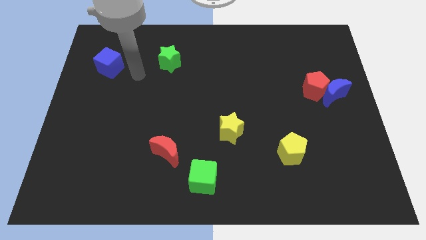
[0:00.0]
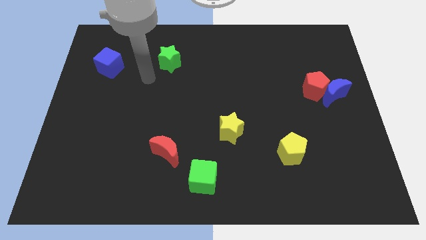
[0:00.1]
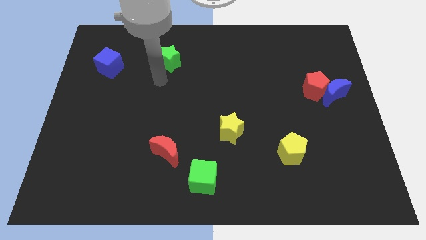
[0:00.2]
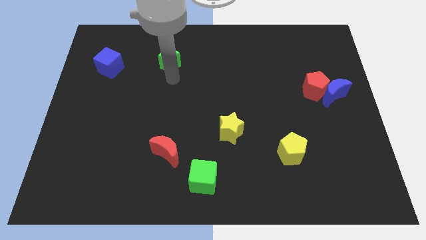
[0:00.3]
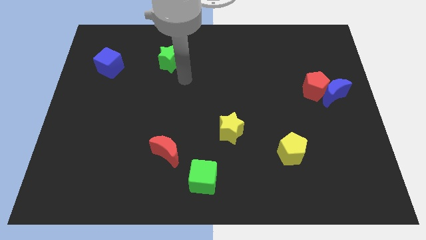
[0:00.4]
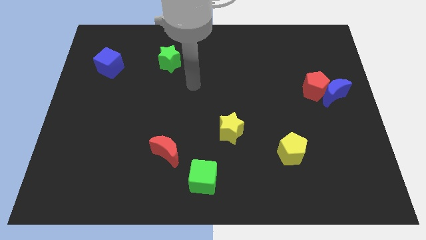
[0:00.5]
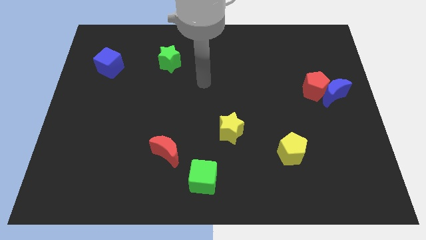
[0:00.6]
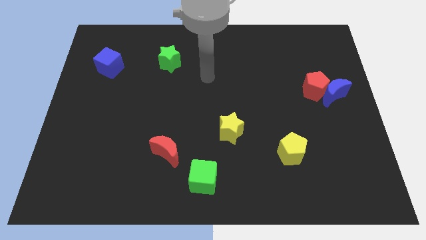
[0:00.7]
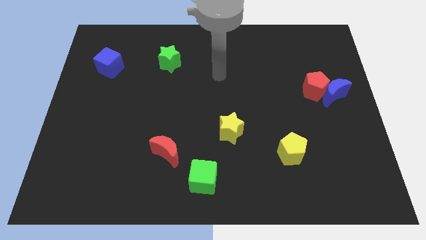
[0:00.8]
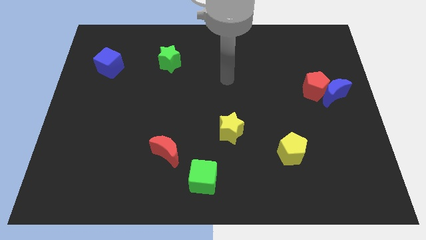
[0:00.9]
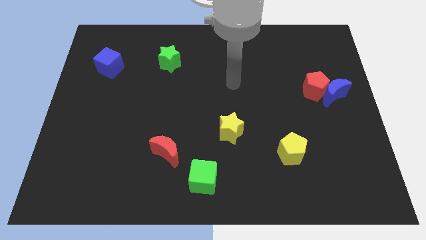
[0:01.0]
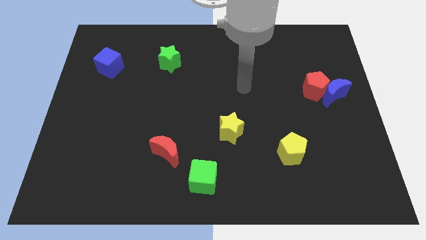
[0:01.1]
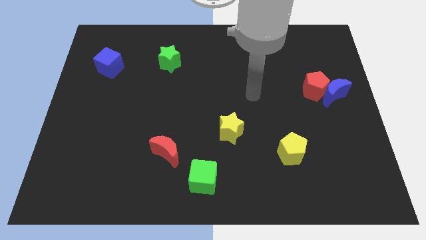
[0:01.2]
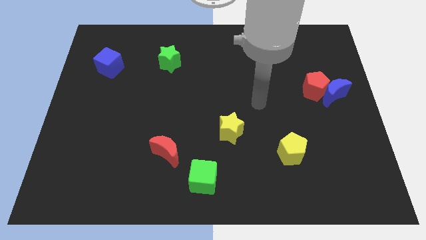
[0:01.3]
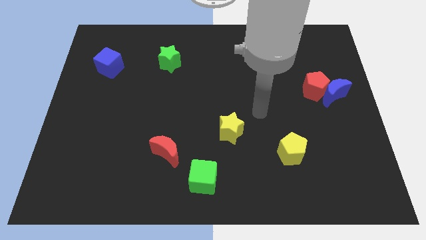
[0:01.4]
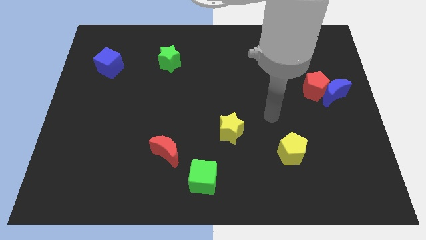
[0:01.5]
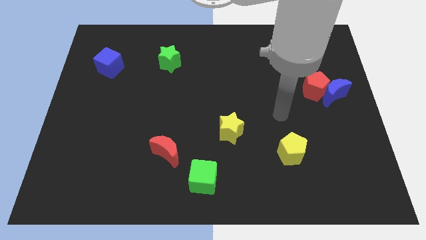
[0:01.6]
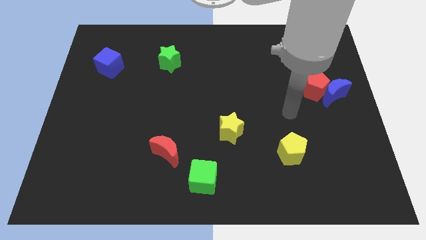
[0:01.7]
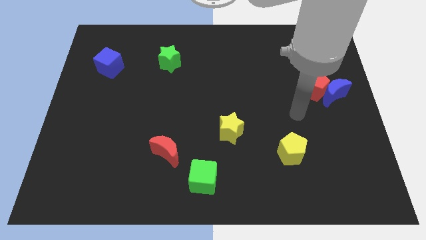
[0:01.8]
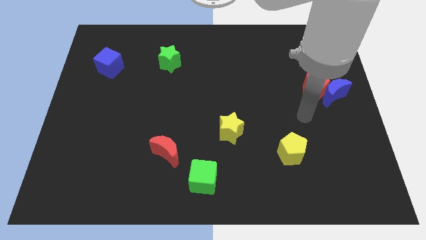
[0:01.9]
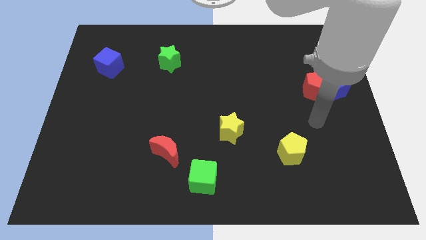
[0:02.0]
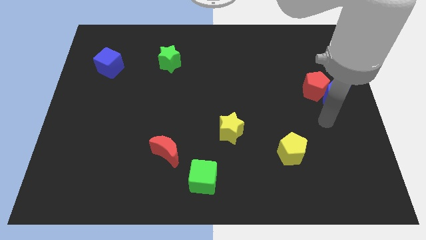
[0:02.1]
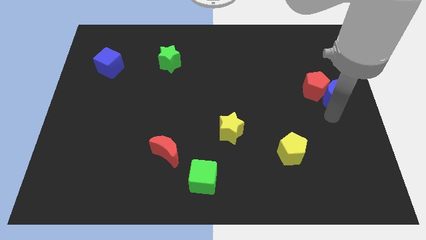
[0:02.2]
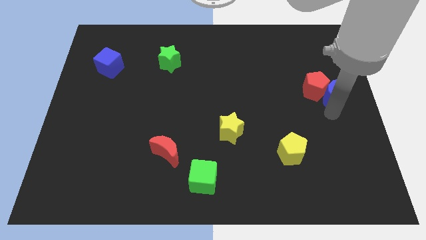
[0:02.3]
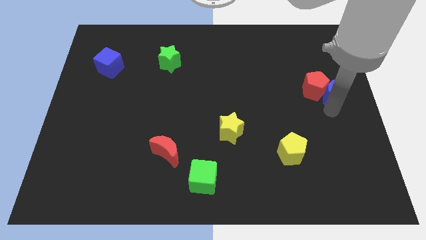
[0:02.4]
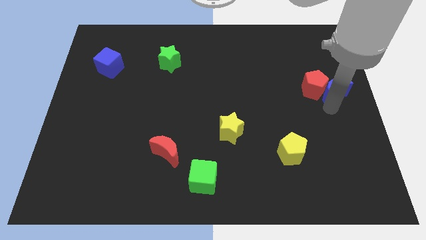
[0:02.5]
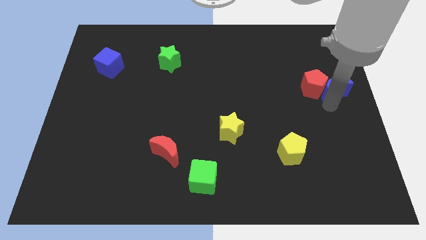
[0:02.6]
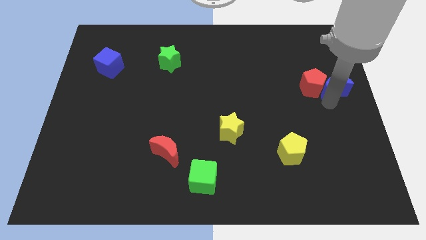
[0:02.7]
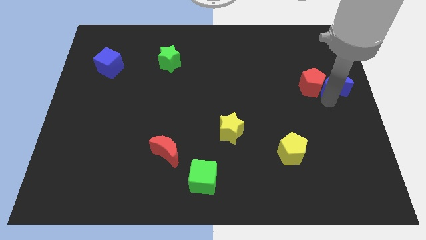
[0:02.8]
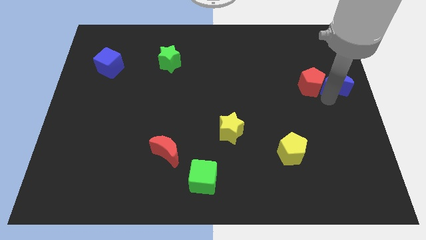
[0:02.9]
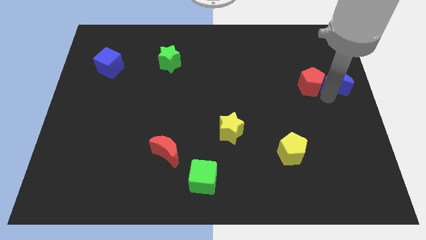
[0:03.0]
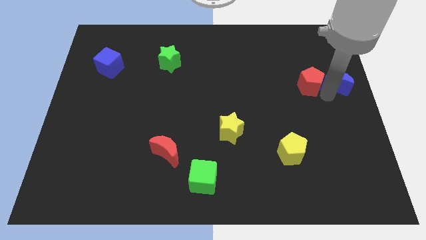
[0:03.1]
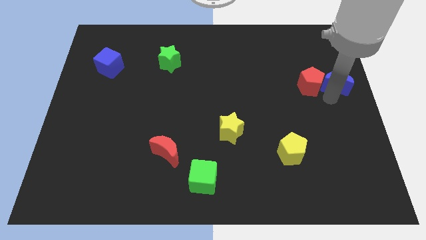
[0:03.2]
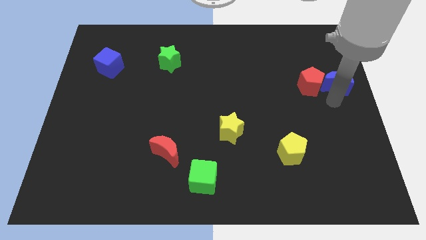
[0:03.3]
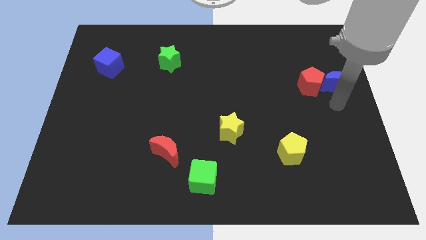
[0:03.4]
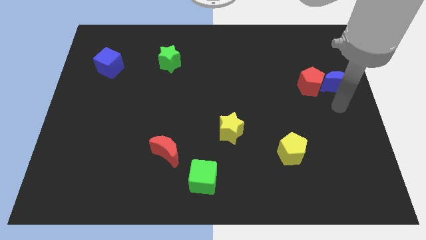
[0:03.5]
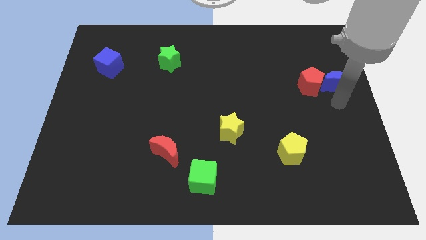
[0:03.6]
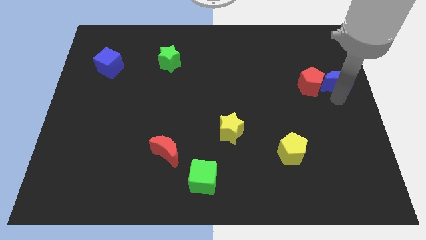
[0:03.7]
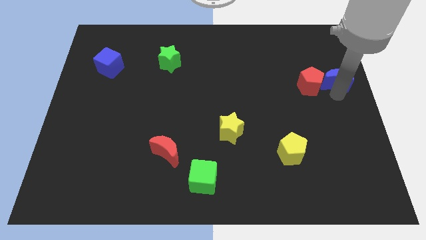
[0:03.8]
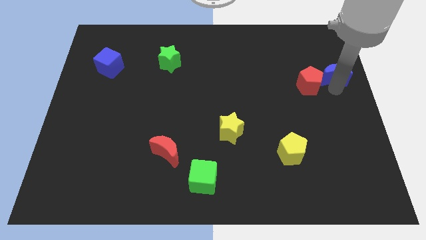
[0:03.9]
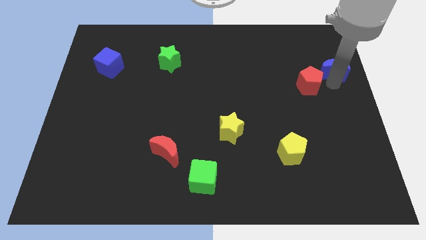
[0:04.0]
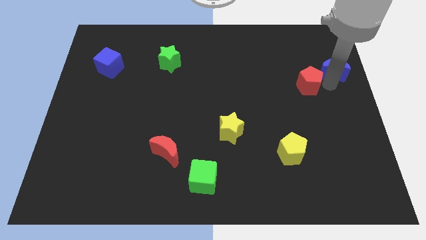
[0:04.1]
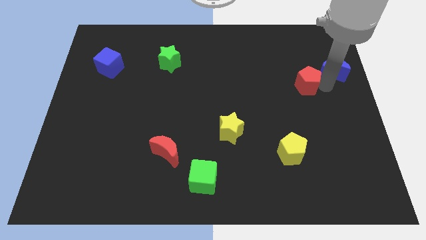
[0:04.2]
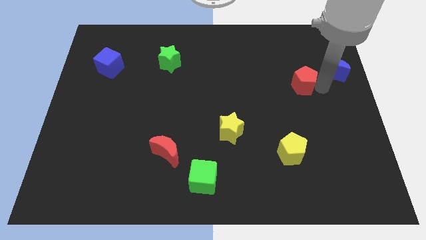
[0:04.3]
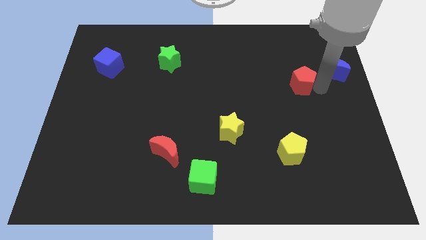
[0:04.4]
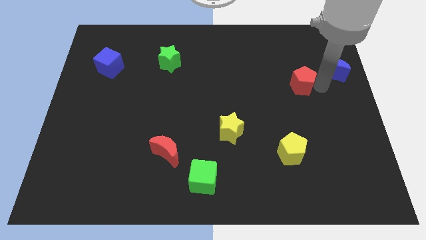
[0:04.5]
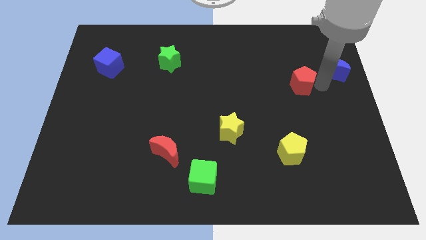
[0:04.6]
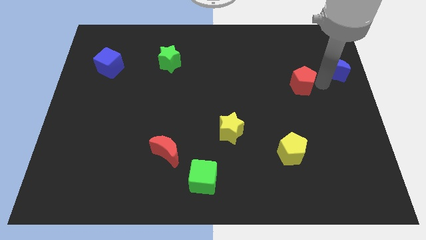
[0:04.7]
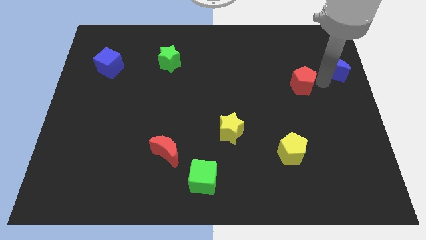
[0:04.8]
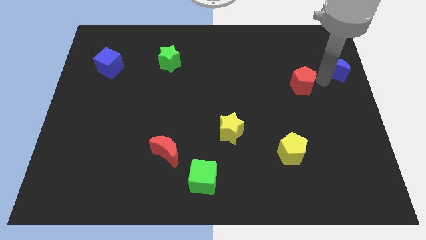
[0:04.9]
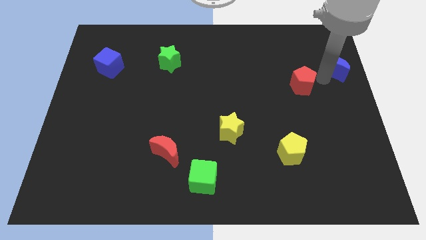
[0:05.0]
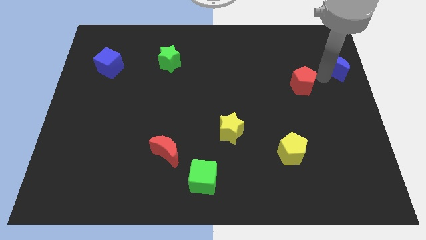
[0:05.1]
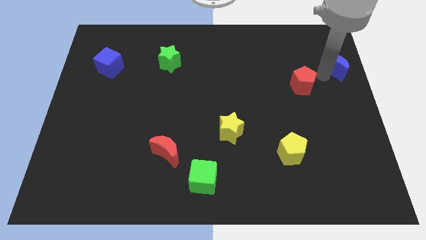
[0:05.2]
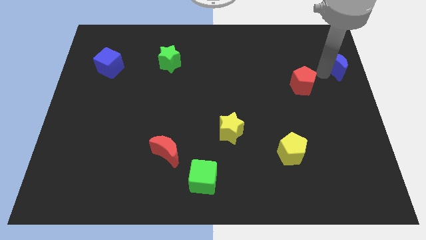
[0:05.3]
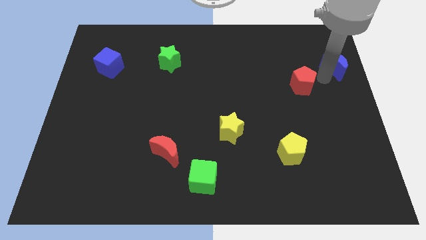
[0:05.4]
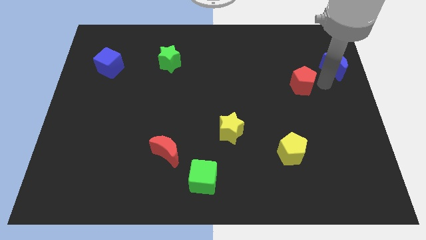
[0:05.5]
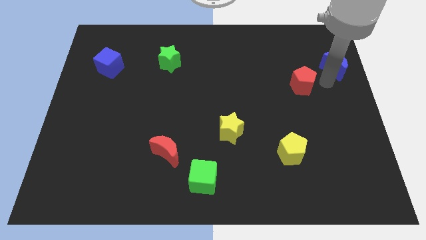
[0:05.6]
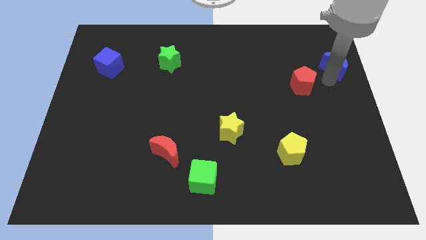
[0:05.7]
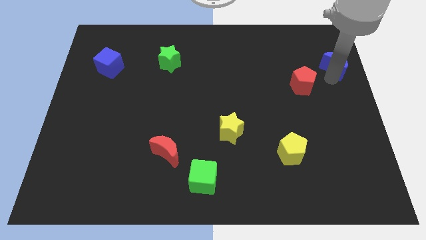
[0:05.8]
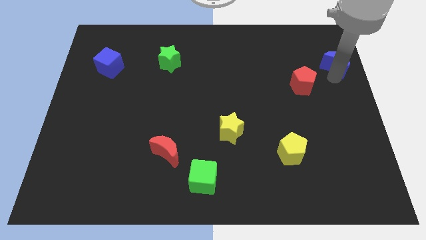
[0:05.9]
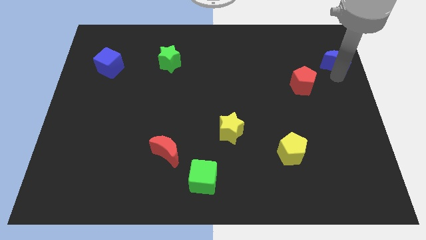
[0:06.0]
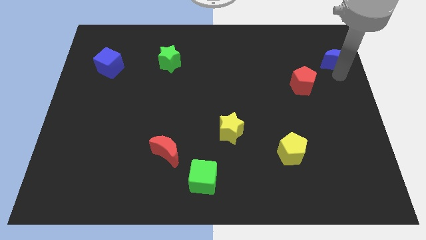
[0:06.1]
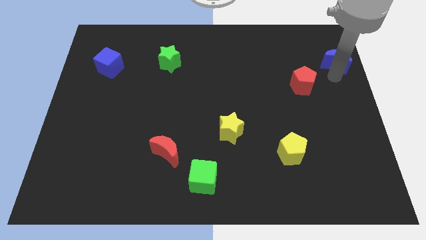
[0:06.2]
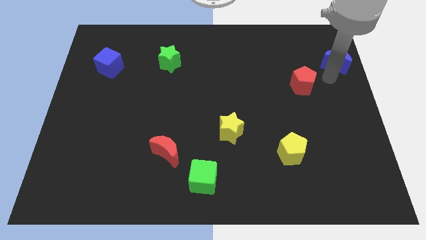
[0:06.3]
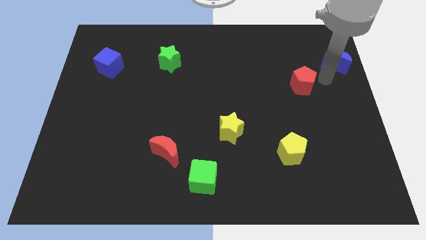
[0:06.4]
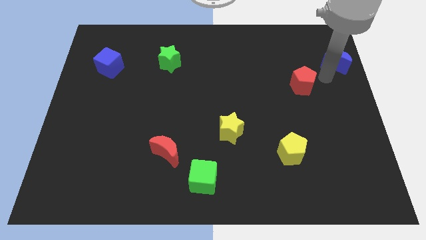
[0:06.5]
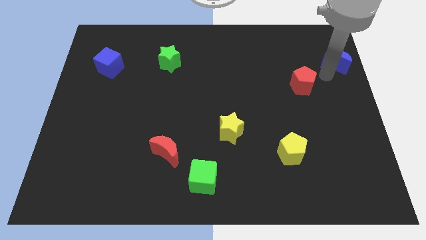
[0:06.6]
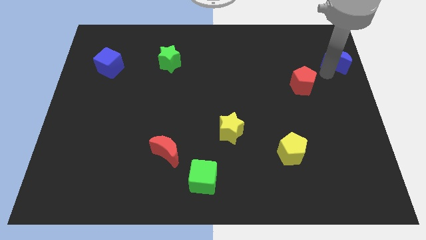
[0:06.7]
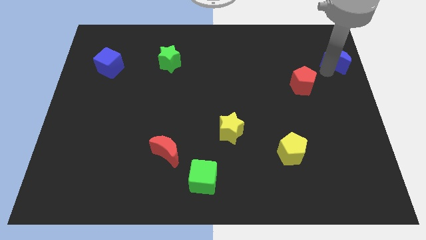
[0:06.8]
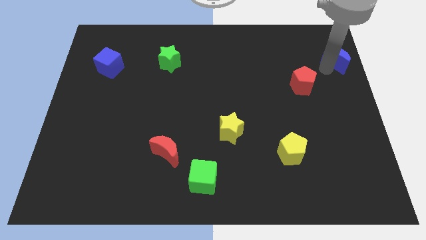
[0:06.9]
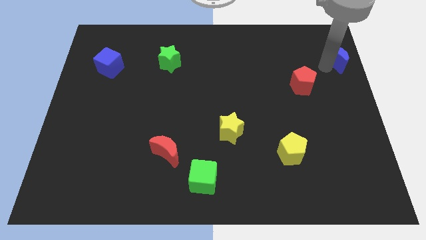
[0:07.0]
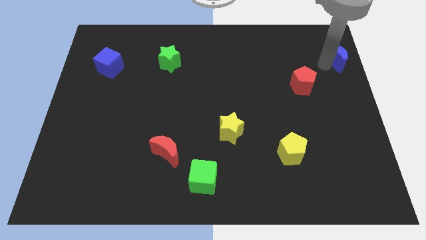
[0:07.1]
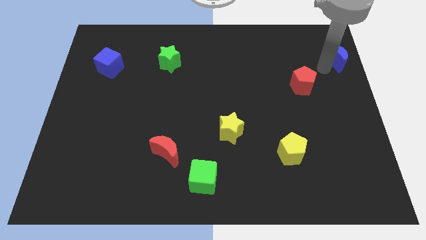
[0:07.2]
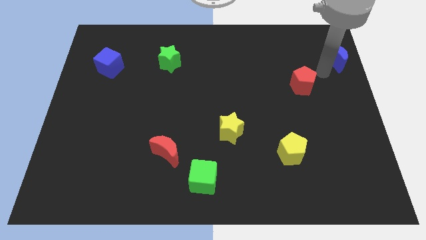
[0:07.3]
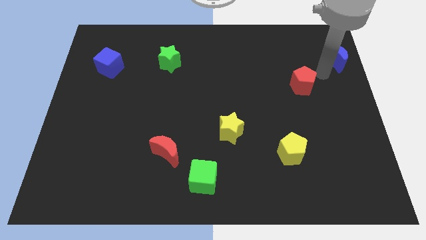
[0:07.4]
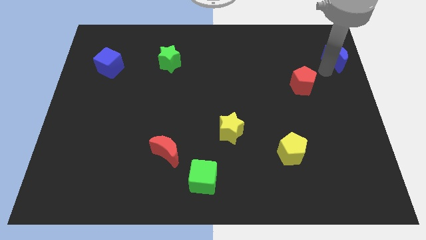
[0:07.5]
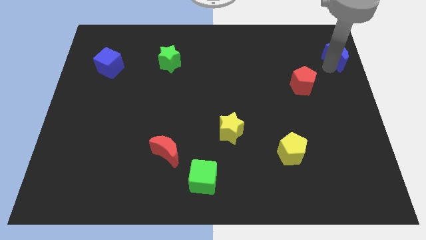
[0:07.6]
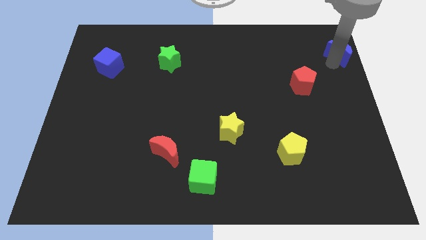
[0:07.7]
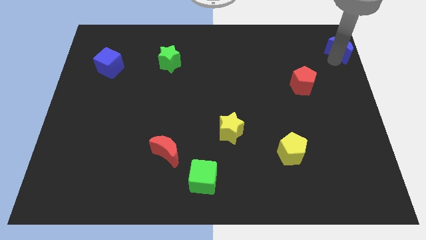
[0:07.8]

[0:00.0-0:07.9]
move the blue moon to the top right of the board
